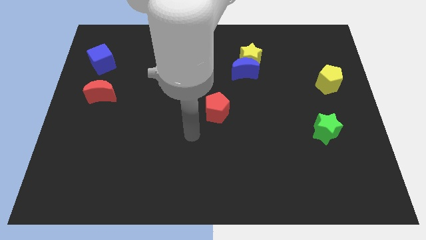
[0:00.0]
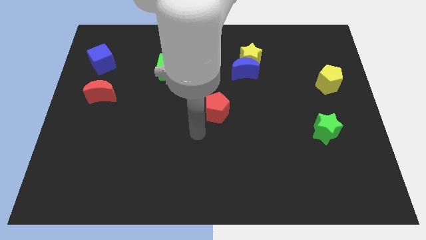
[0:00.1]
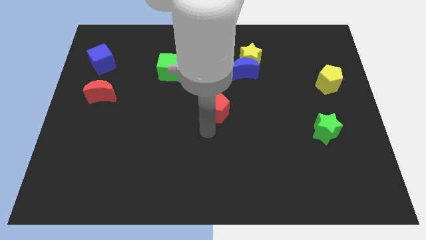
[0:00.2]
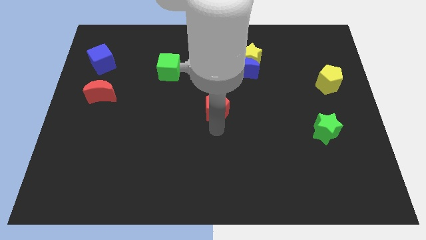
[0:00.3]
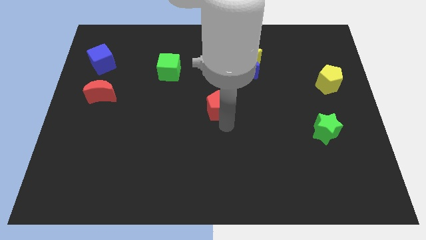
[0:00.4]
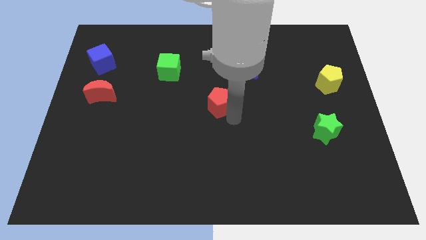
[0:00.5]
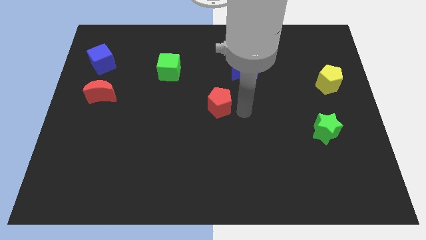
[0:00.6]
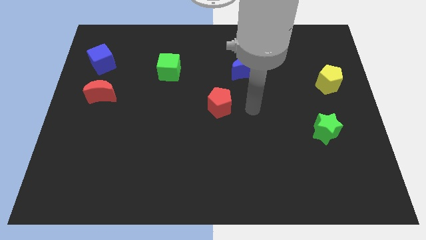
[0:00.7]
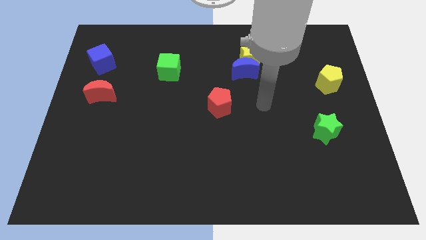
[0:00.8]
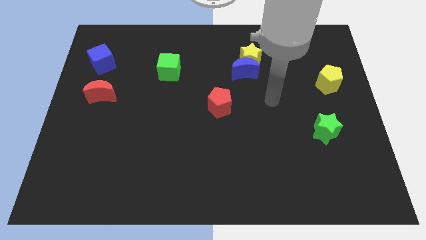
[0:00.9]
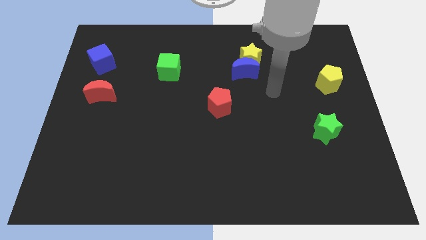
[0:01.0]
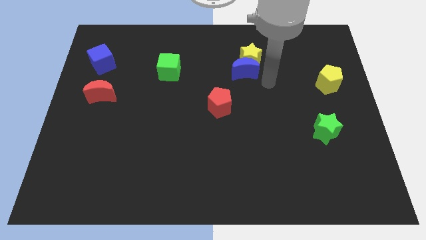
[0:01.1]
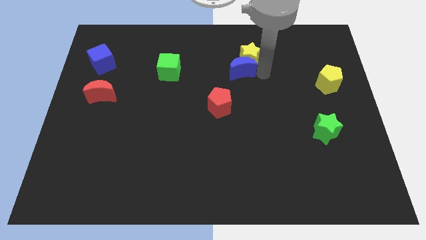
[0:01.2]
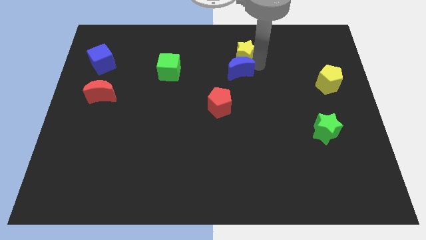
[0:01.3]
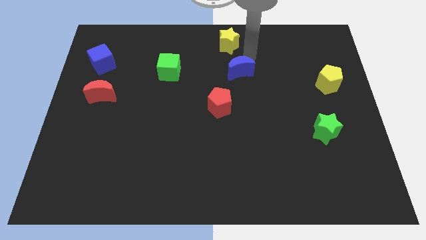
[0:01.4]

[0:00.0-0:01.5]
move the blue moon away from the yellow star

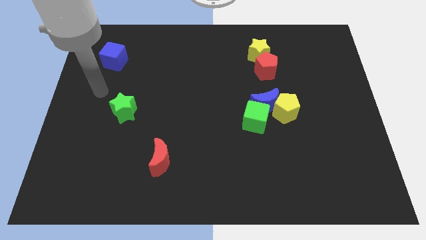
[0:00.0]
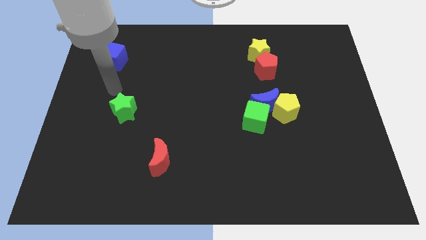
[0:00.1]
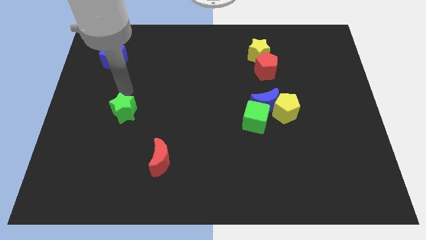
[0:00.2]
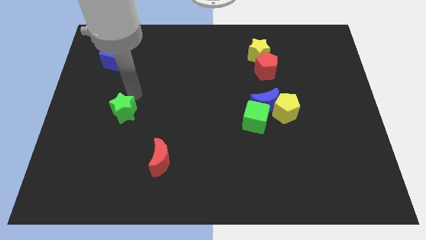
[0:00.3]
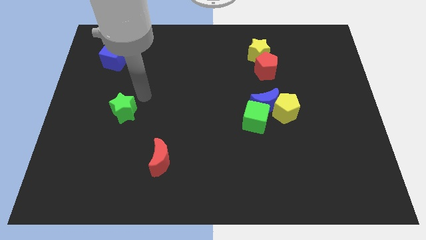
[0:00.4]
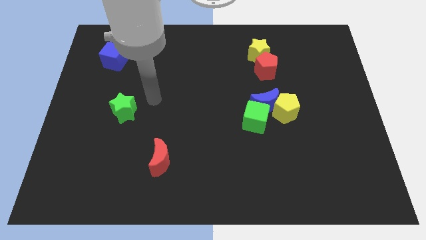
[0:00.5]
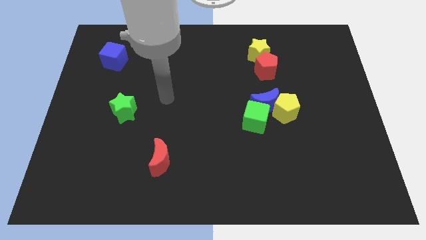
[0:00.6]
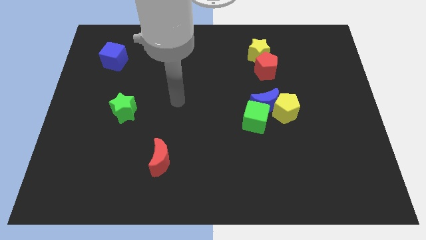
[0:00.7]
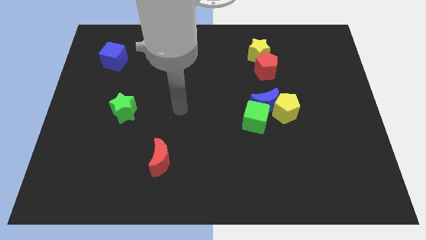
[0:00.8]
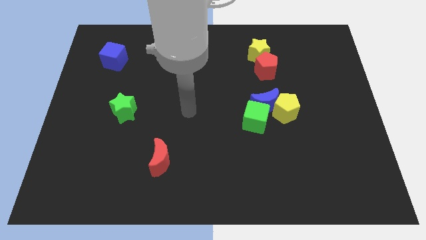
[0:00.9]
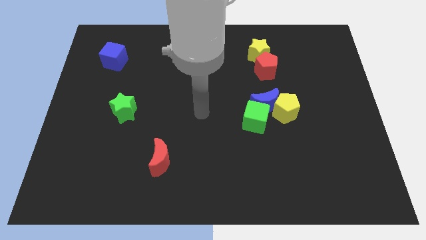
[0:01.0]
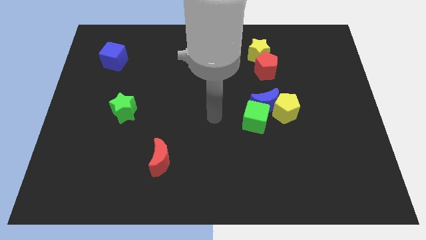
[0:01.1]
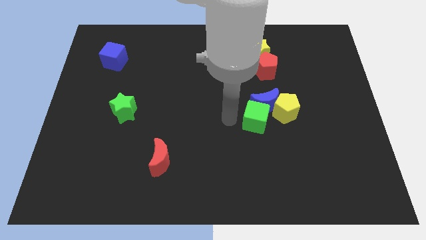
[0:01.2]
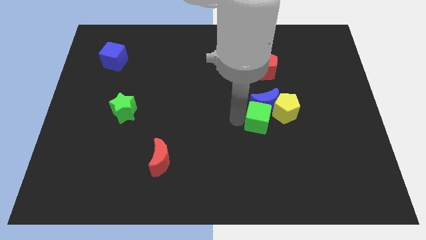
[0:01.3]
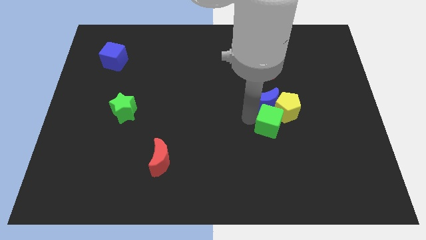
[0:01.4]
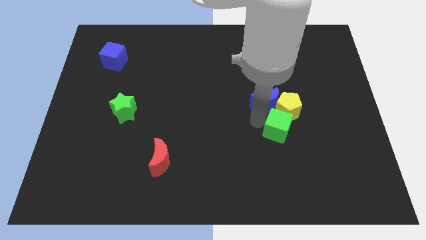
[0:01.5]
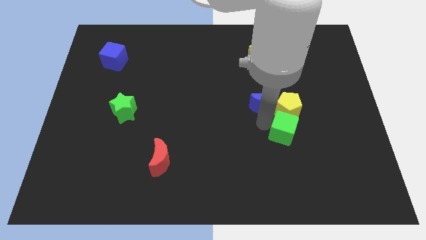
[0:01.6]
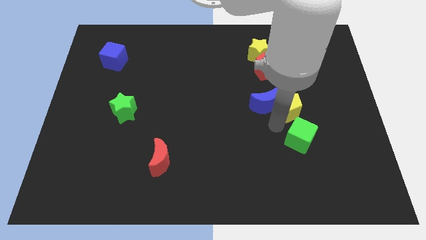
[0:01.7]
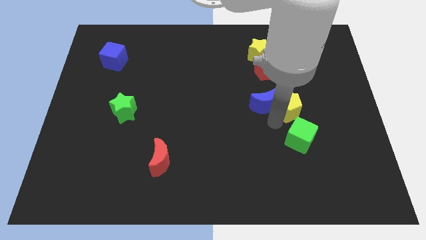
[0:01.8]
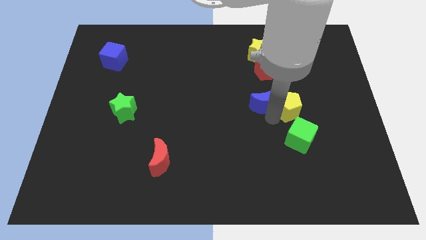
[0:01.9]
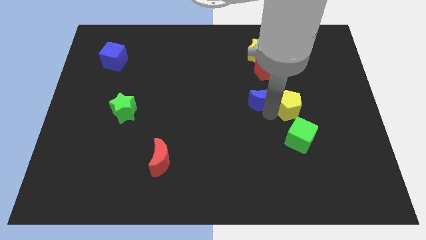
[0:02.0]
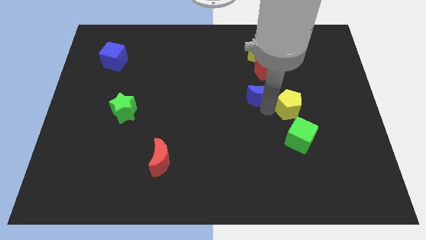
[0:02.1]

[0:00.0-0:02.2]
pull the blue moon apart from the green cube and yellow pentagon

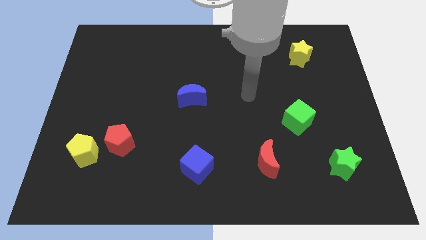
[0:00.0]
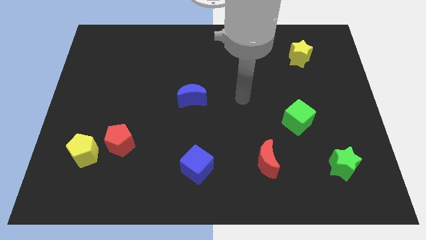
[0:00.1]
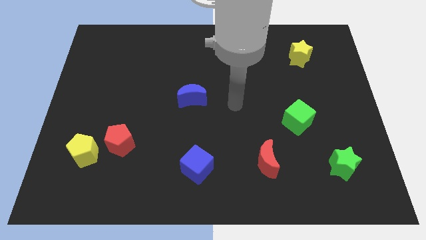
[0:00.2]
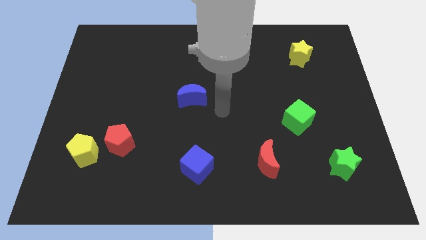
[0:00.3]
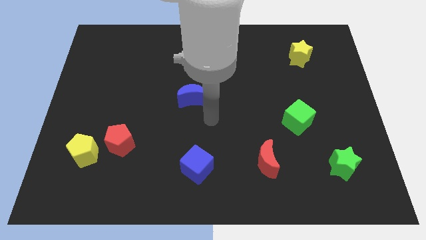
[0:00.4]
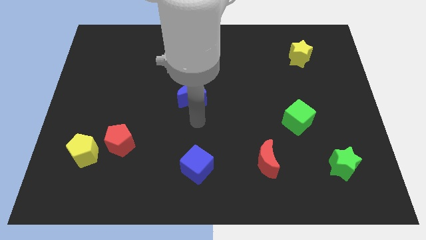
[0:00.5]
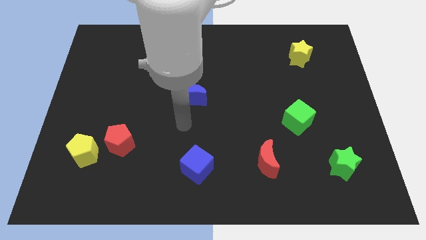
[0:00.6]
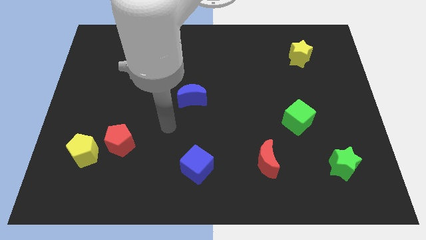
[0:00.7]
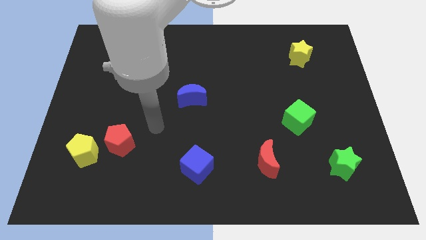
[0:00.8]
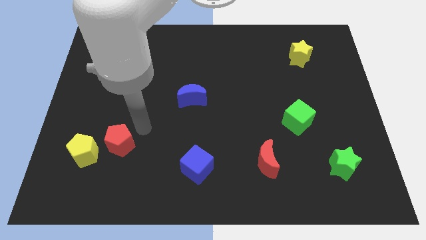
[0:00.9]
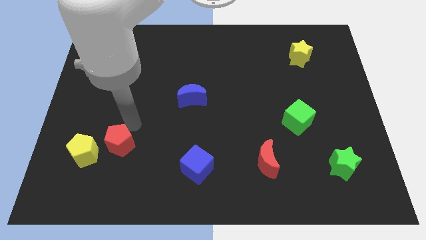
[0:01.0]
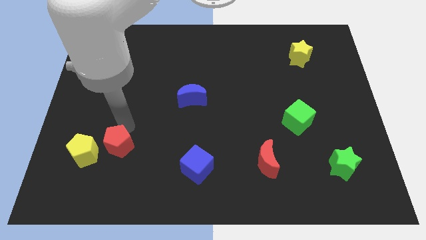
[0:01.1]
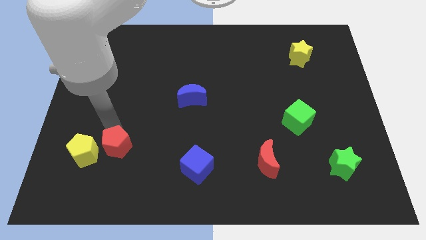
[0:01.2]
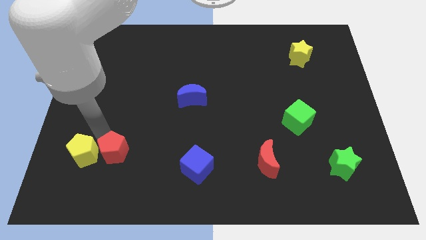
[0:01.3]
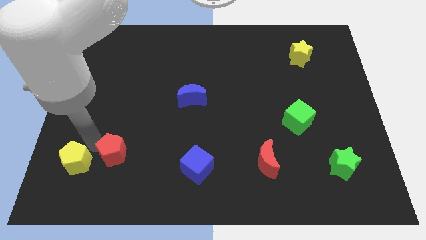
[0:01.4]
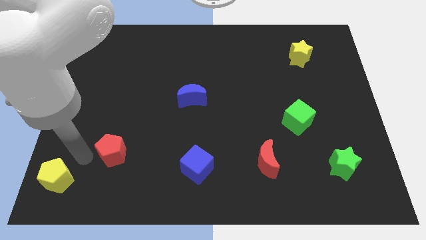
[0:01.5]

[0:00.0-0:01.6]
move the red pentagon away from the yellow pentagon

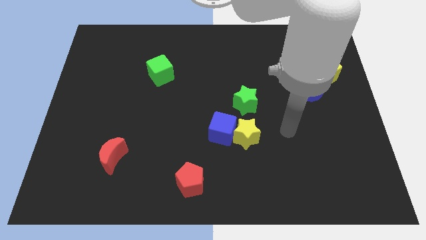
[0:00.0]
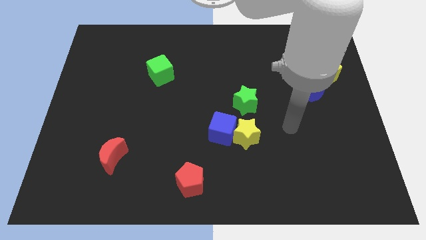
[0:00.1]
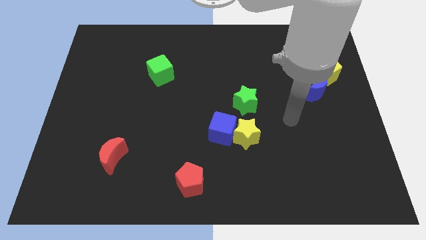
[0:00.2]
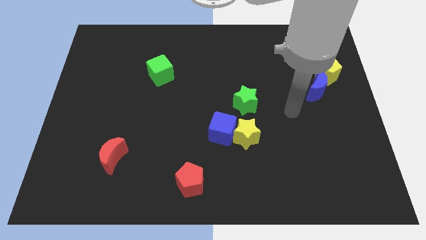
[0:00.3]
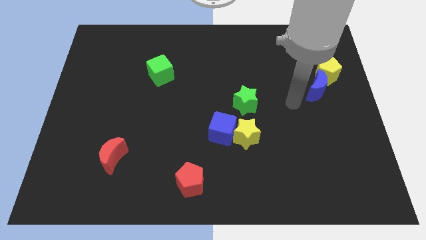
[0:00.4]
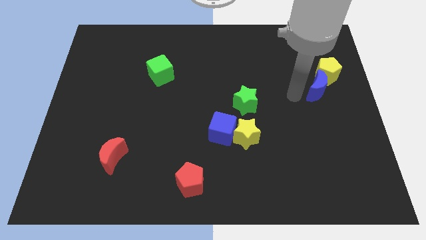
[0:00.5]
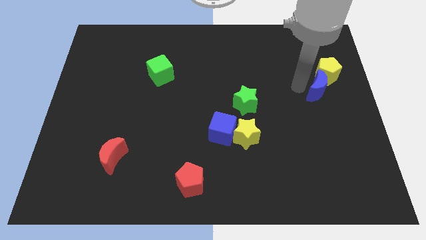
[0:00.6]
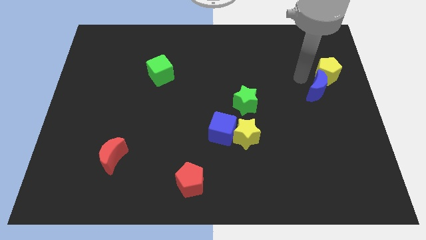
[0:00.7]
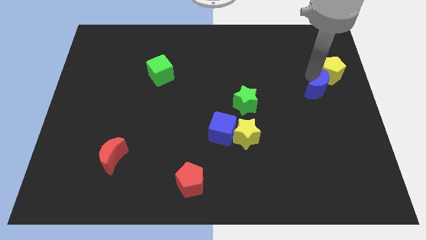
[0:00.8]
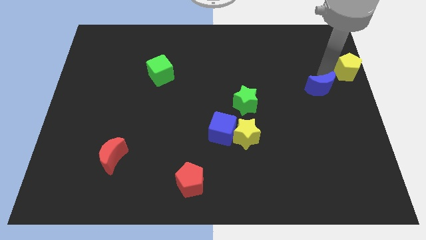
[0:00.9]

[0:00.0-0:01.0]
move the blue moon away from the yellow pentagon

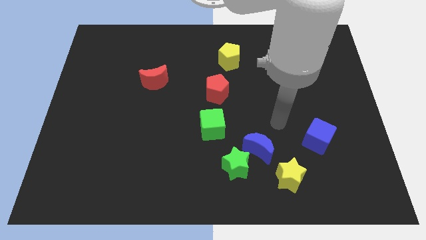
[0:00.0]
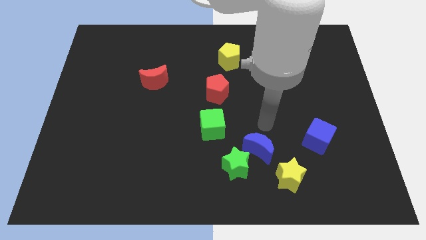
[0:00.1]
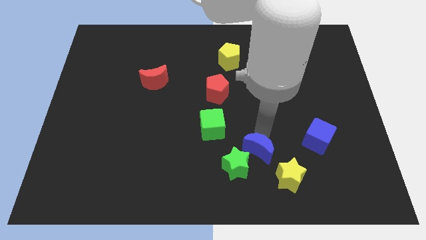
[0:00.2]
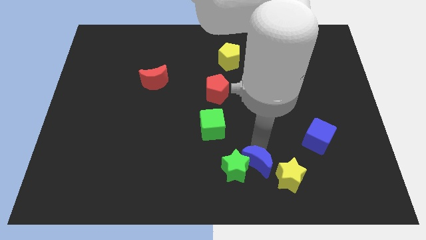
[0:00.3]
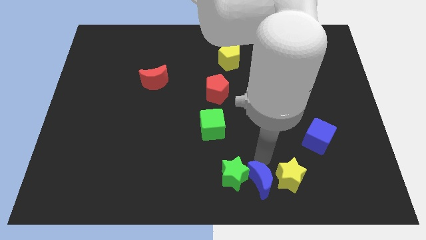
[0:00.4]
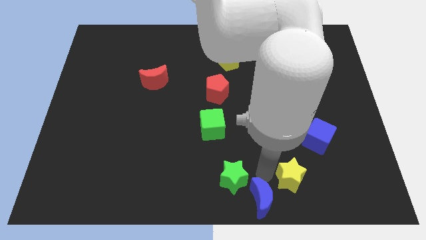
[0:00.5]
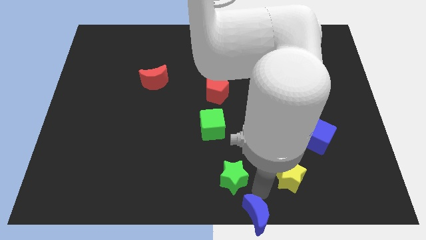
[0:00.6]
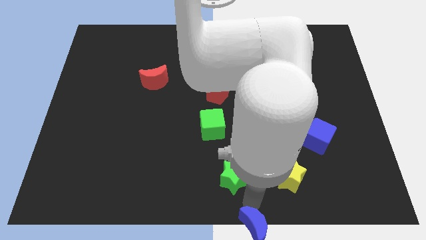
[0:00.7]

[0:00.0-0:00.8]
separate the green star from the blue moon

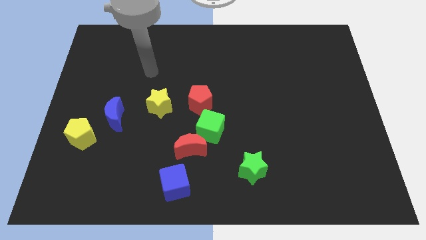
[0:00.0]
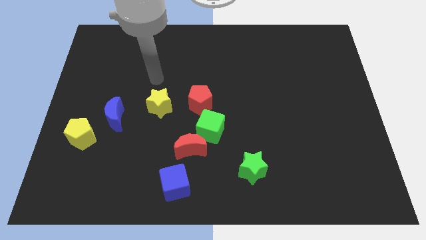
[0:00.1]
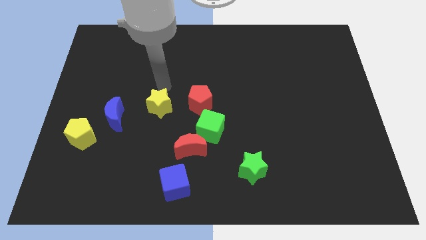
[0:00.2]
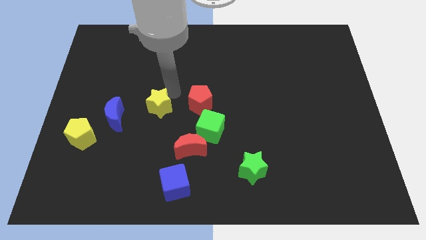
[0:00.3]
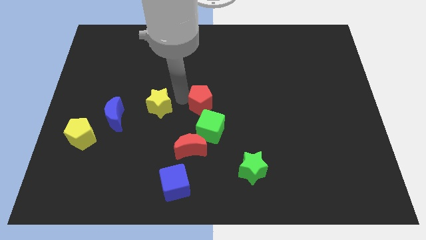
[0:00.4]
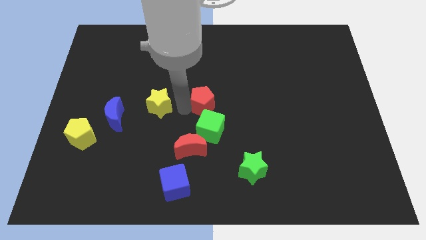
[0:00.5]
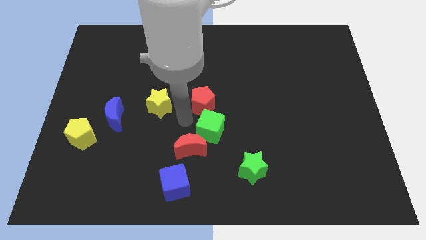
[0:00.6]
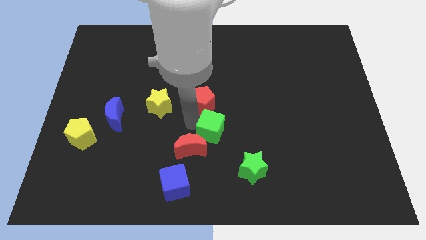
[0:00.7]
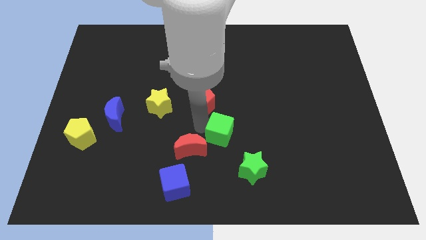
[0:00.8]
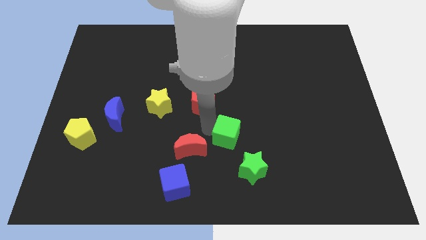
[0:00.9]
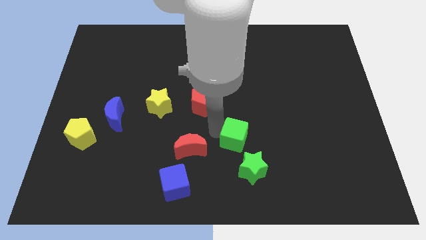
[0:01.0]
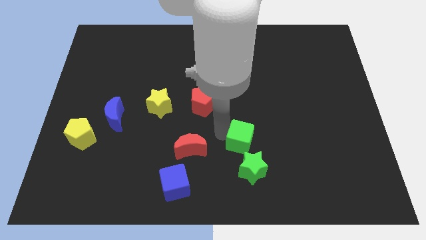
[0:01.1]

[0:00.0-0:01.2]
pull the green cube apart from the red moon and red pentagon

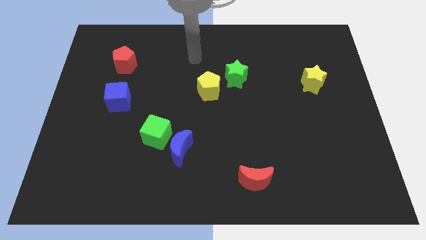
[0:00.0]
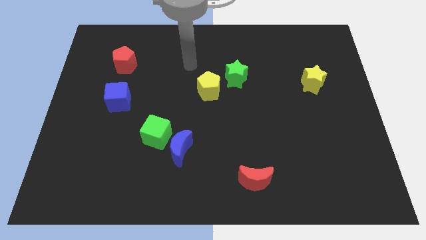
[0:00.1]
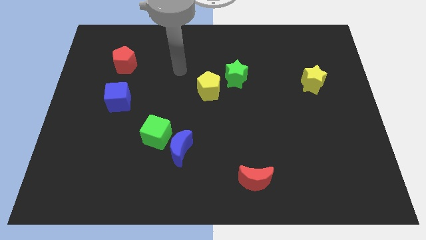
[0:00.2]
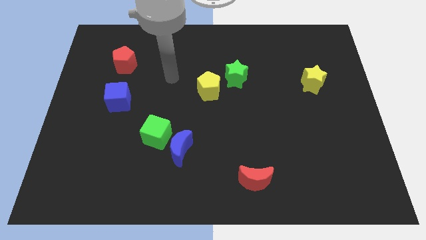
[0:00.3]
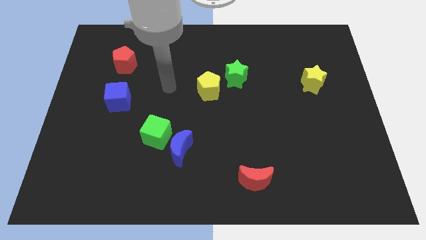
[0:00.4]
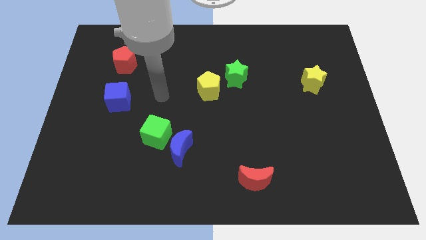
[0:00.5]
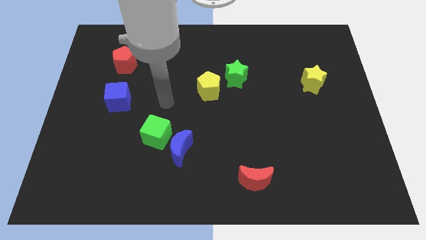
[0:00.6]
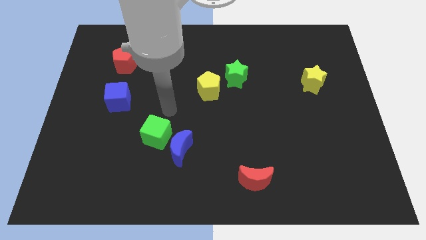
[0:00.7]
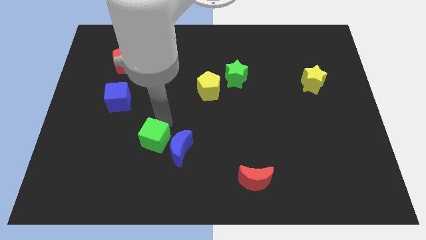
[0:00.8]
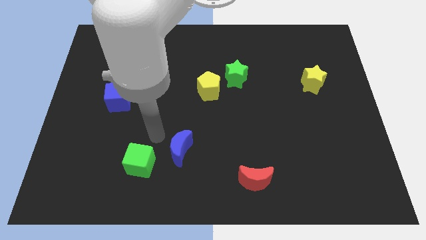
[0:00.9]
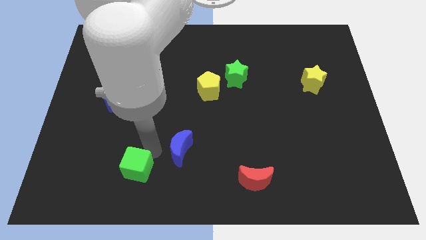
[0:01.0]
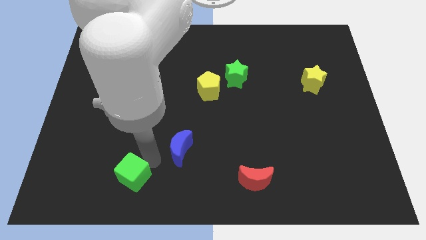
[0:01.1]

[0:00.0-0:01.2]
separate the blue moon from the green cube
